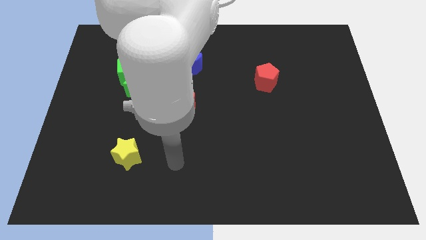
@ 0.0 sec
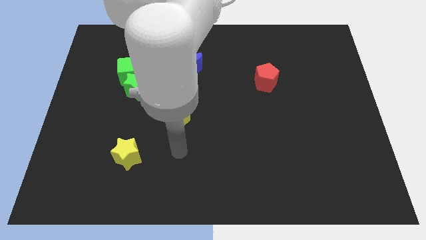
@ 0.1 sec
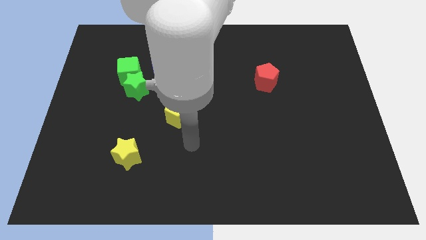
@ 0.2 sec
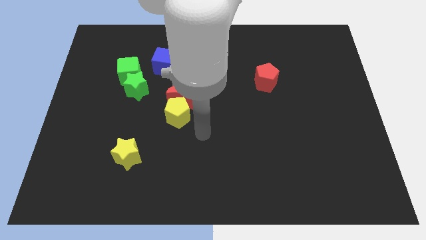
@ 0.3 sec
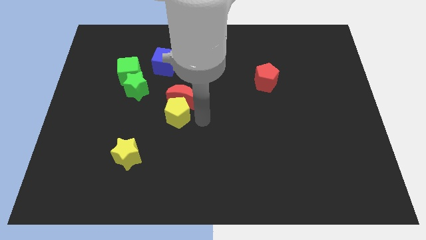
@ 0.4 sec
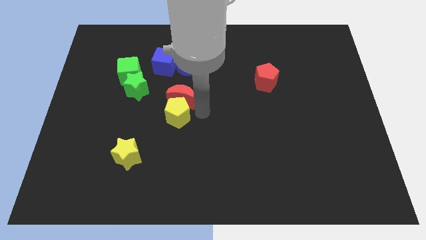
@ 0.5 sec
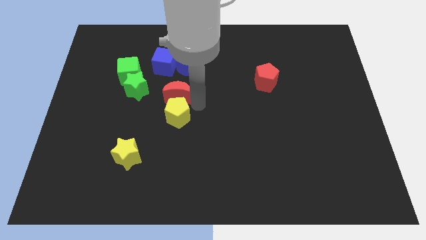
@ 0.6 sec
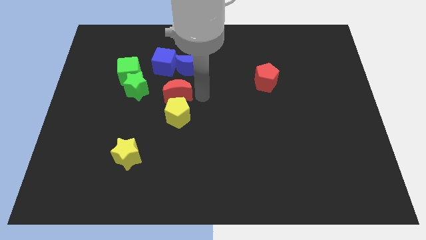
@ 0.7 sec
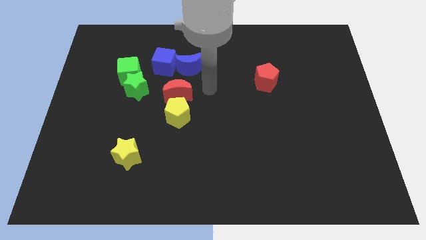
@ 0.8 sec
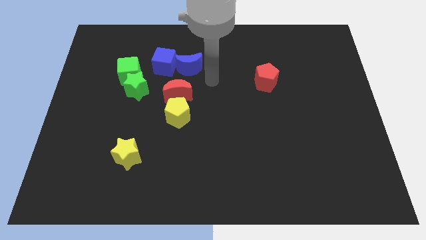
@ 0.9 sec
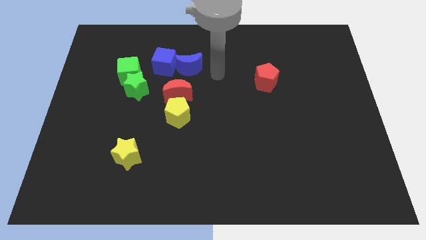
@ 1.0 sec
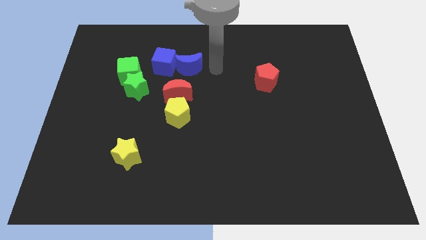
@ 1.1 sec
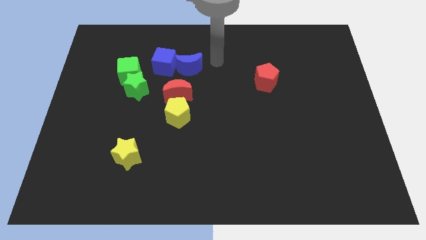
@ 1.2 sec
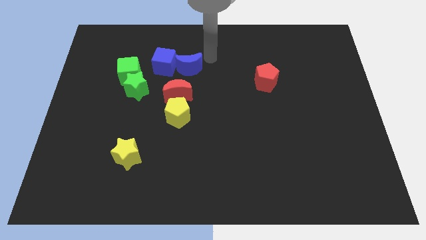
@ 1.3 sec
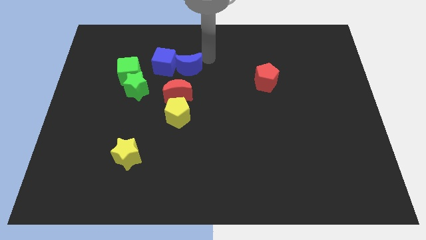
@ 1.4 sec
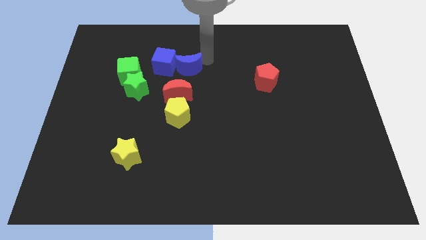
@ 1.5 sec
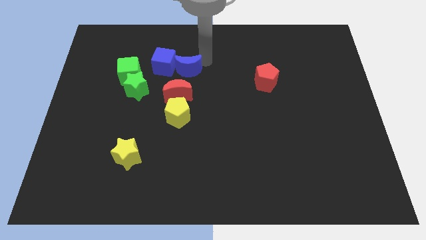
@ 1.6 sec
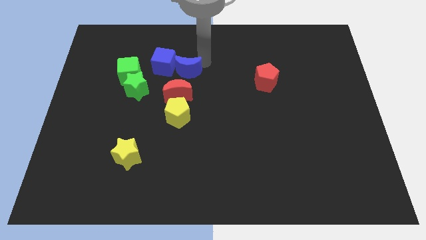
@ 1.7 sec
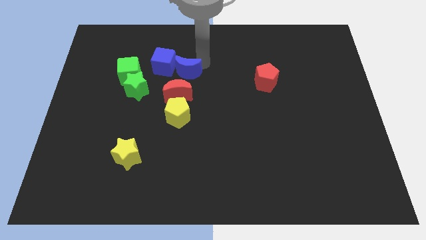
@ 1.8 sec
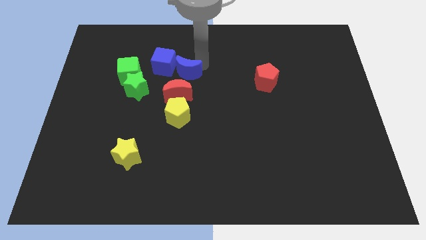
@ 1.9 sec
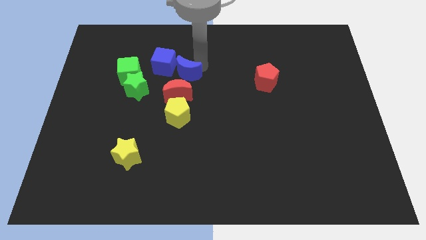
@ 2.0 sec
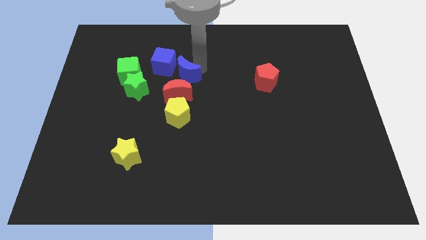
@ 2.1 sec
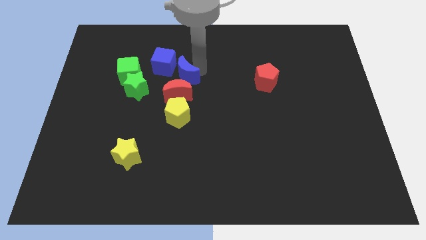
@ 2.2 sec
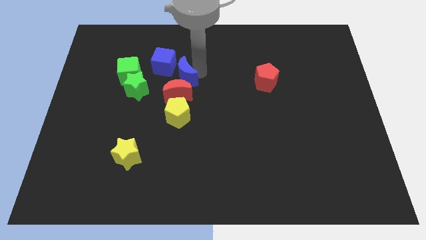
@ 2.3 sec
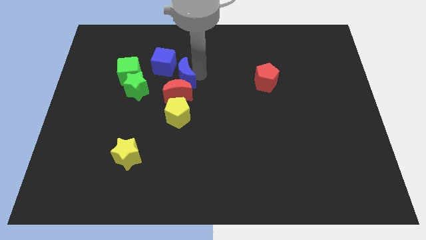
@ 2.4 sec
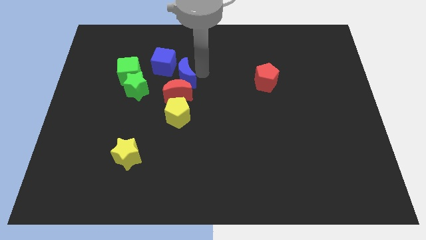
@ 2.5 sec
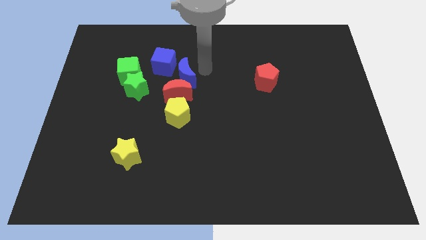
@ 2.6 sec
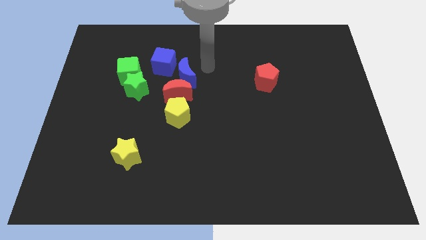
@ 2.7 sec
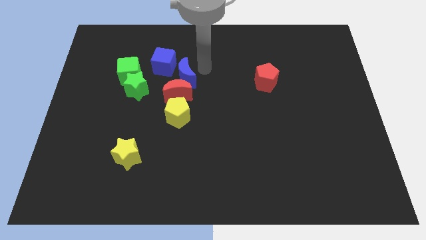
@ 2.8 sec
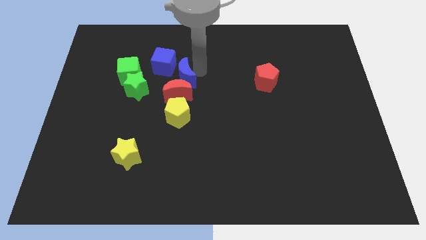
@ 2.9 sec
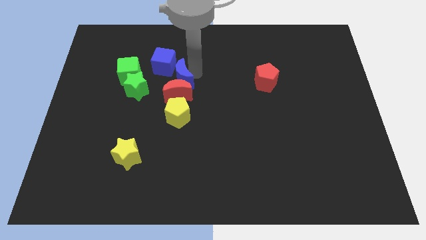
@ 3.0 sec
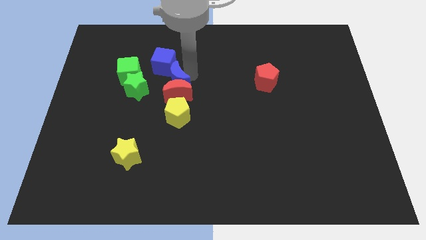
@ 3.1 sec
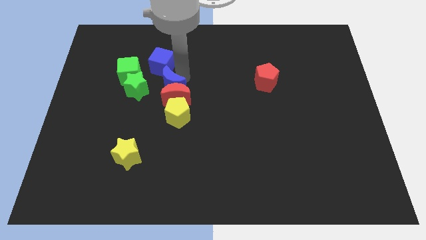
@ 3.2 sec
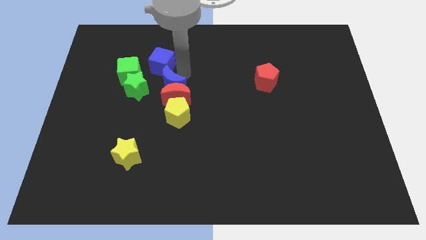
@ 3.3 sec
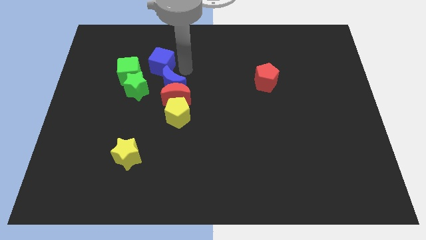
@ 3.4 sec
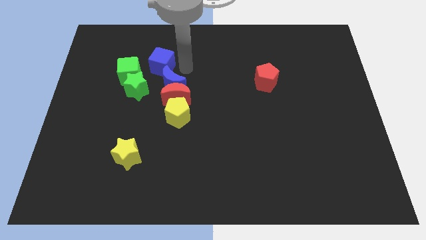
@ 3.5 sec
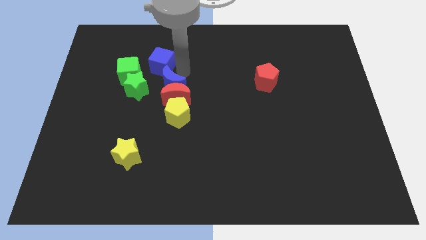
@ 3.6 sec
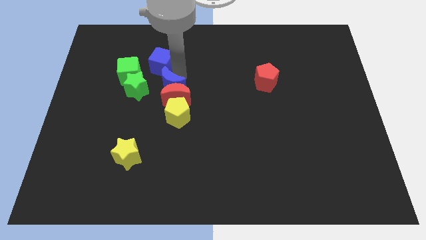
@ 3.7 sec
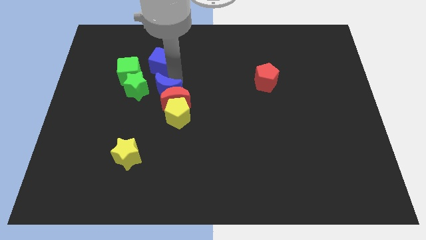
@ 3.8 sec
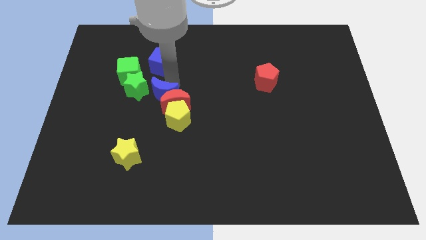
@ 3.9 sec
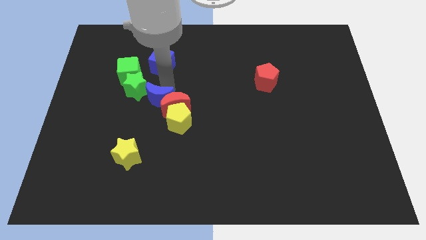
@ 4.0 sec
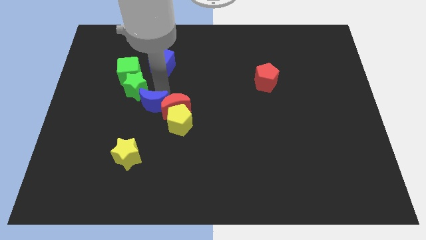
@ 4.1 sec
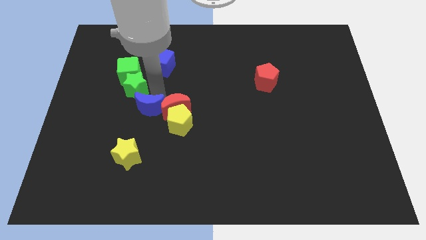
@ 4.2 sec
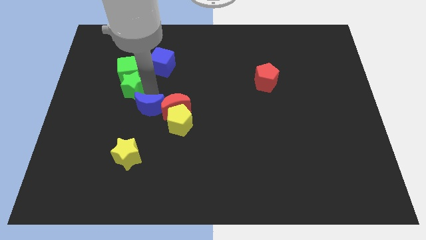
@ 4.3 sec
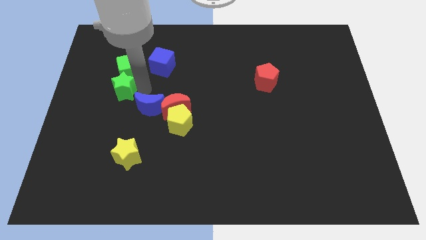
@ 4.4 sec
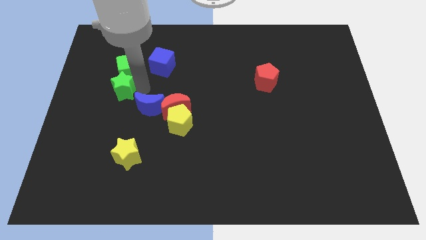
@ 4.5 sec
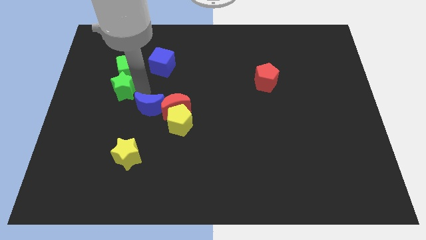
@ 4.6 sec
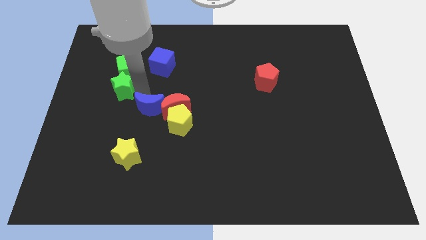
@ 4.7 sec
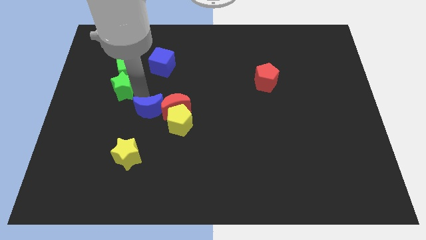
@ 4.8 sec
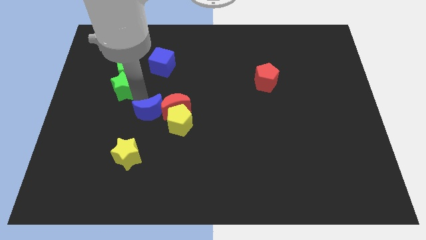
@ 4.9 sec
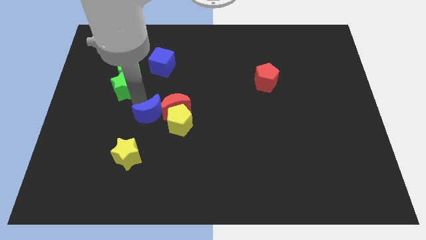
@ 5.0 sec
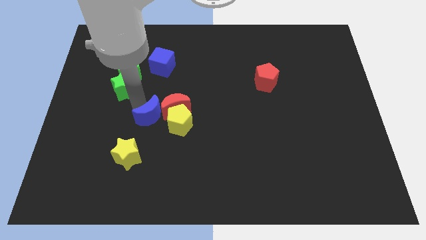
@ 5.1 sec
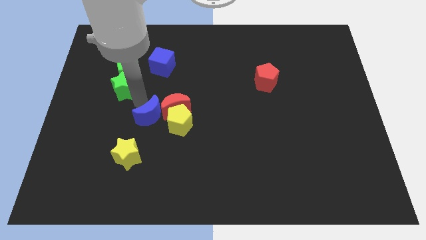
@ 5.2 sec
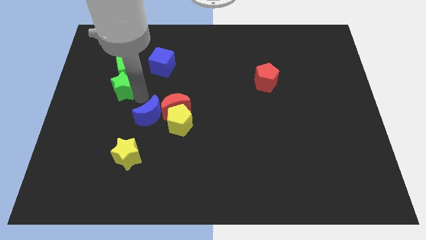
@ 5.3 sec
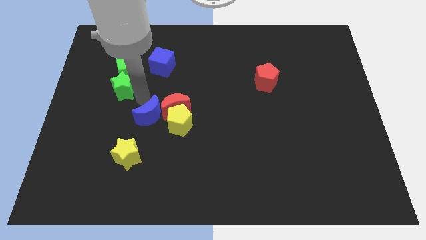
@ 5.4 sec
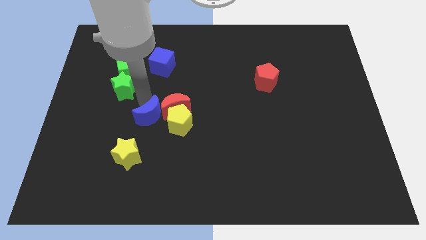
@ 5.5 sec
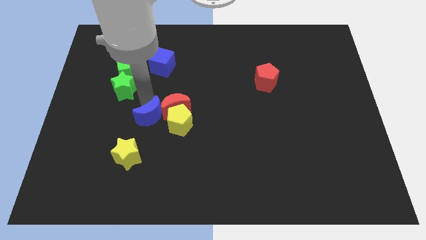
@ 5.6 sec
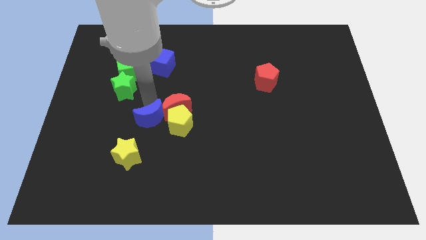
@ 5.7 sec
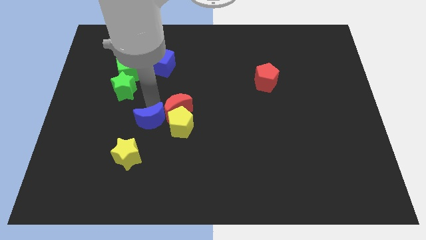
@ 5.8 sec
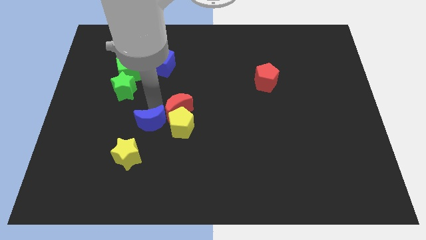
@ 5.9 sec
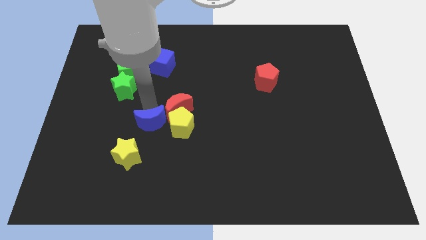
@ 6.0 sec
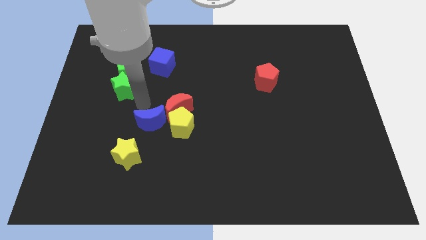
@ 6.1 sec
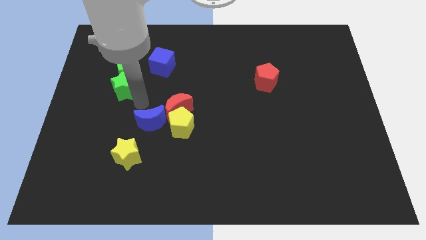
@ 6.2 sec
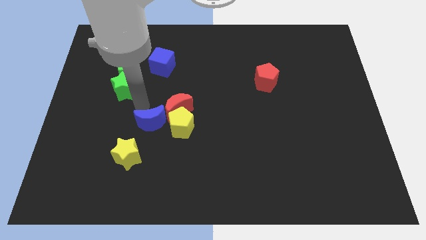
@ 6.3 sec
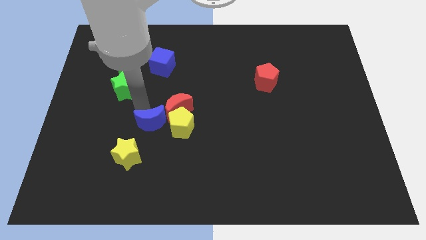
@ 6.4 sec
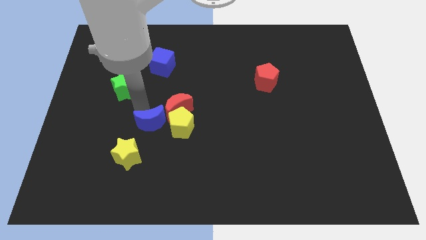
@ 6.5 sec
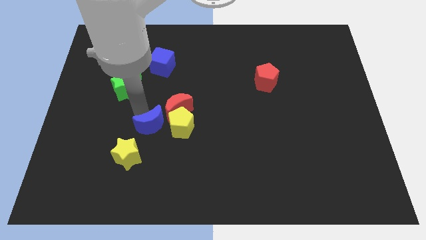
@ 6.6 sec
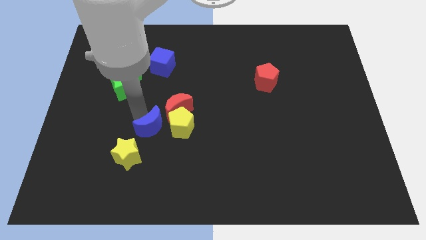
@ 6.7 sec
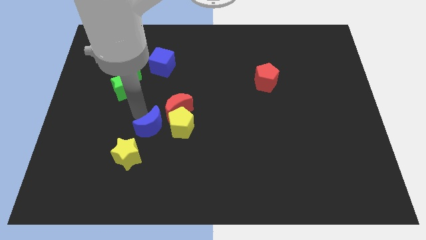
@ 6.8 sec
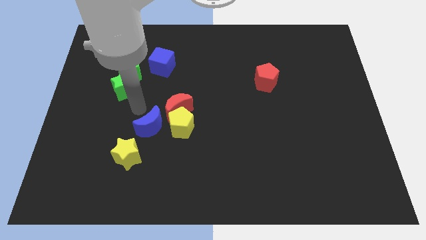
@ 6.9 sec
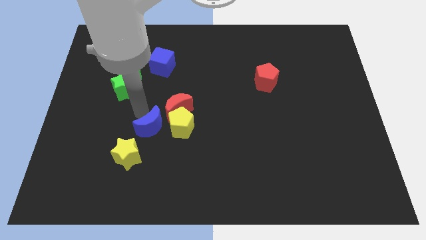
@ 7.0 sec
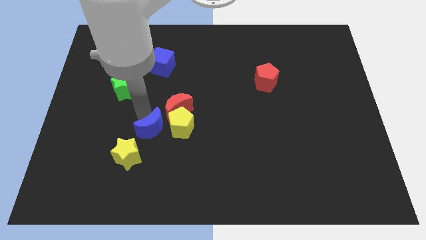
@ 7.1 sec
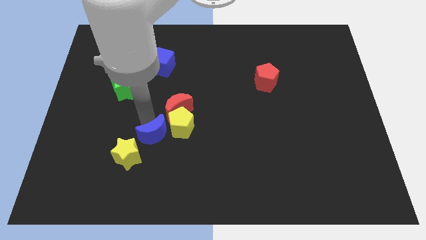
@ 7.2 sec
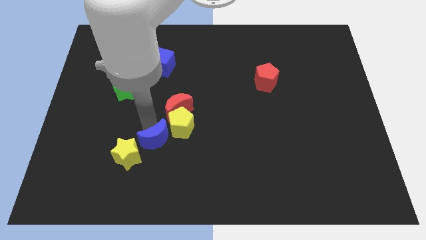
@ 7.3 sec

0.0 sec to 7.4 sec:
push the blue moon down

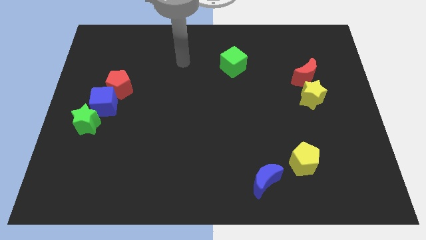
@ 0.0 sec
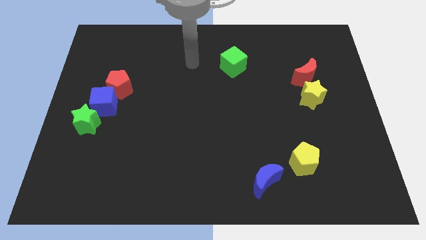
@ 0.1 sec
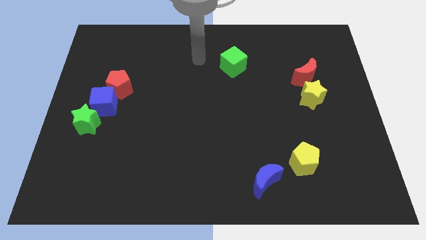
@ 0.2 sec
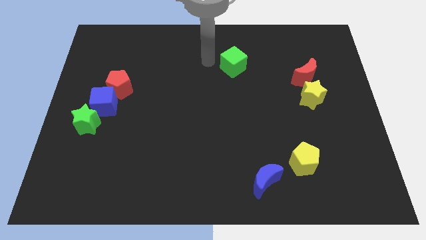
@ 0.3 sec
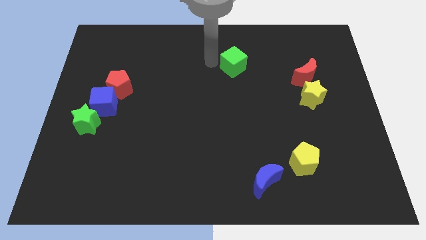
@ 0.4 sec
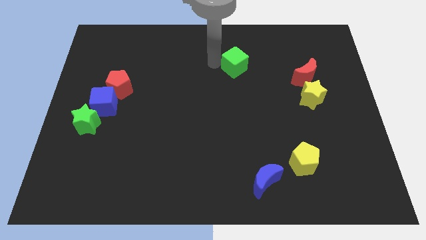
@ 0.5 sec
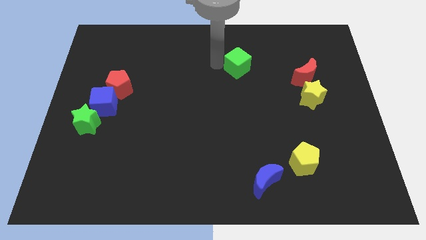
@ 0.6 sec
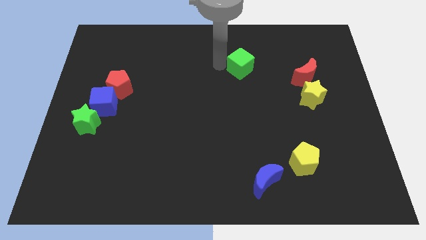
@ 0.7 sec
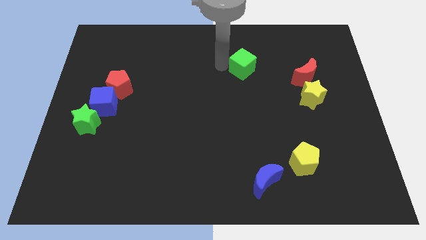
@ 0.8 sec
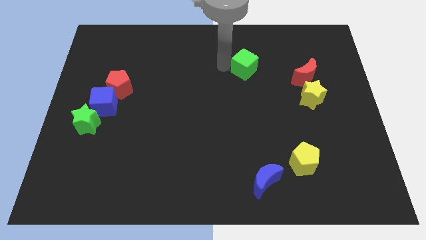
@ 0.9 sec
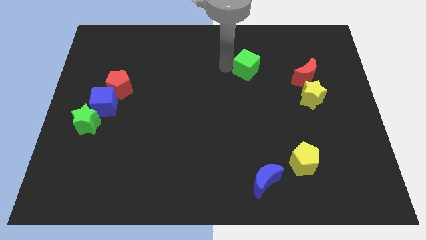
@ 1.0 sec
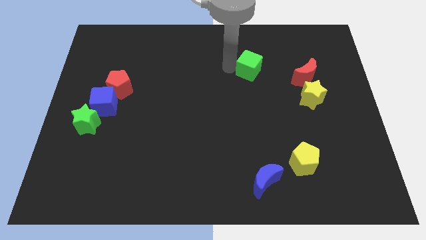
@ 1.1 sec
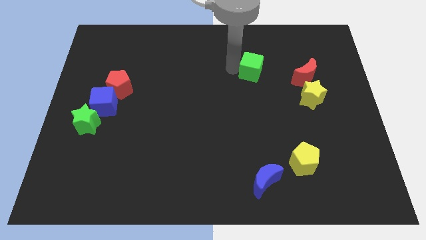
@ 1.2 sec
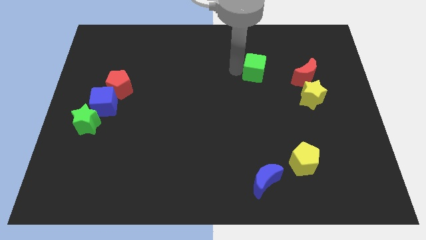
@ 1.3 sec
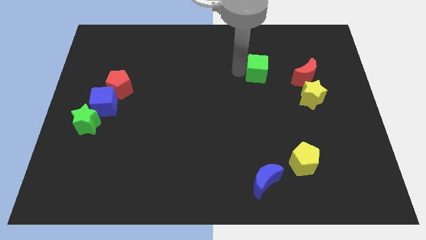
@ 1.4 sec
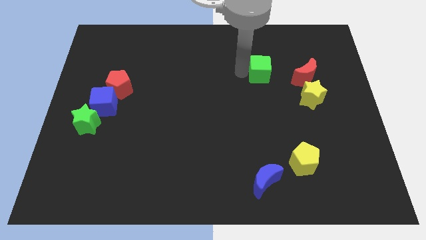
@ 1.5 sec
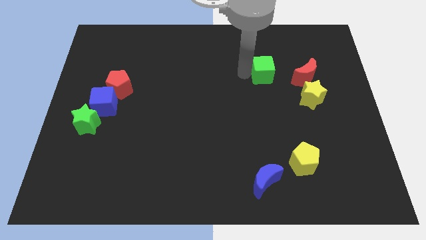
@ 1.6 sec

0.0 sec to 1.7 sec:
slide the green cube to the right somewhat
